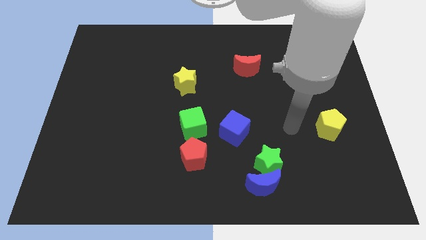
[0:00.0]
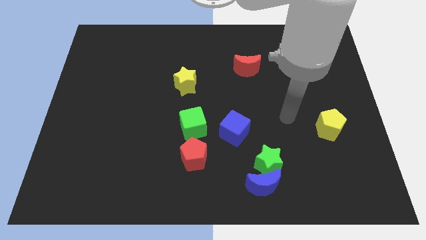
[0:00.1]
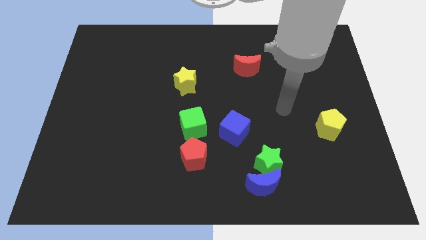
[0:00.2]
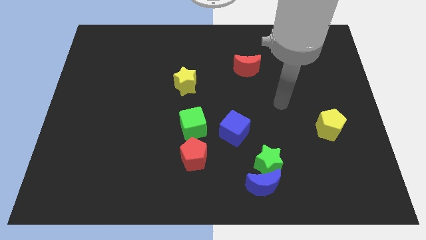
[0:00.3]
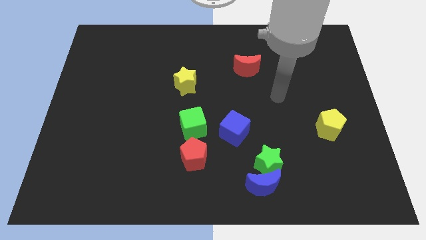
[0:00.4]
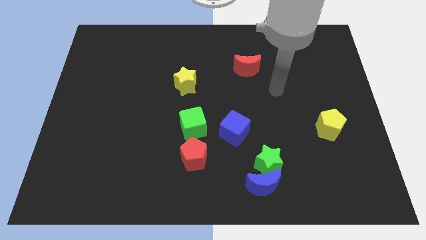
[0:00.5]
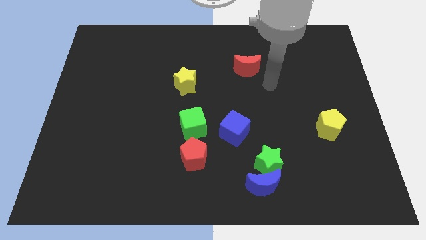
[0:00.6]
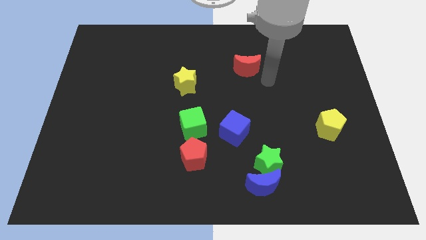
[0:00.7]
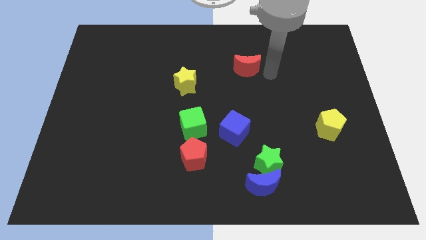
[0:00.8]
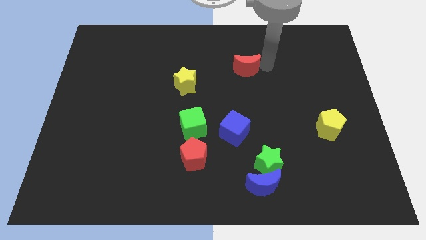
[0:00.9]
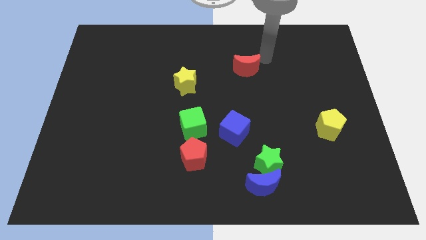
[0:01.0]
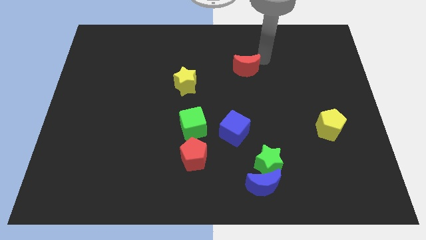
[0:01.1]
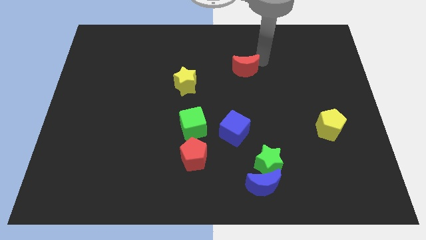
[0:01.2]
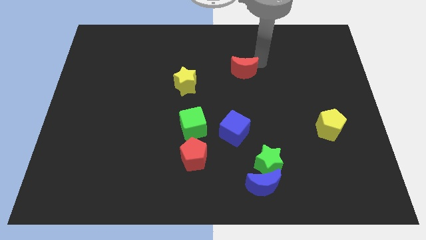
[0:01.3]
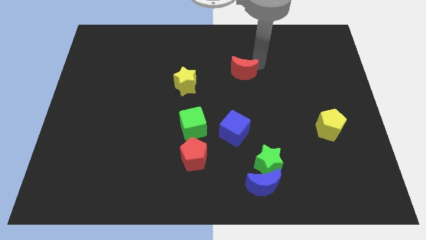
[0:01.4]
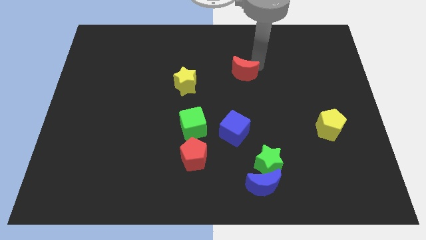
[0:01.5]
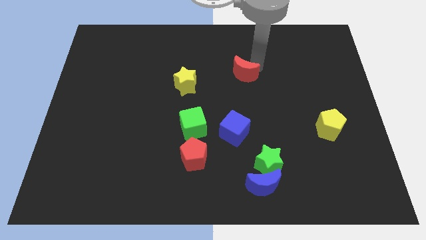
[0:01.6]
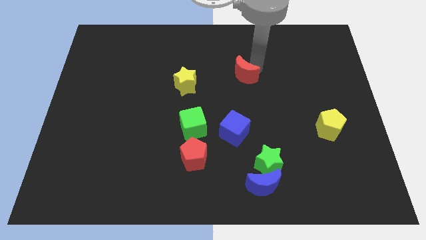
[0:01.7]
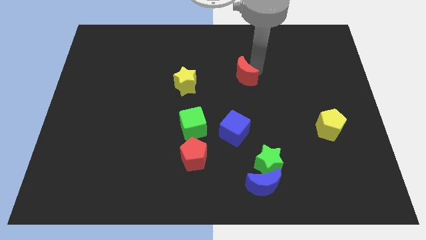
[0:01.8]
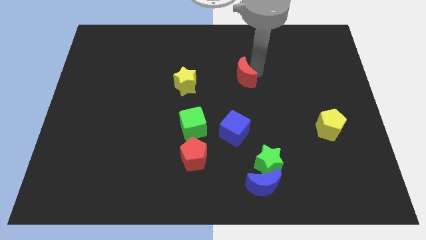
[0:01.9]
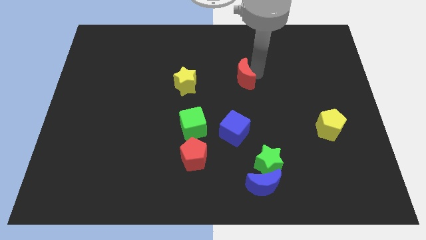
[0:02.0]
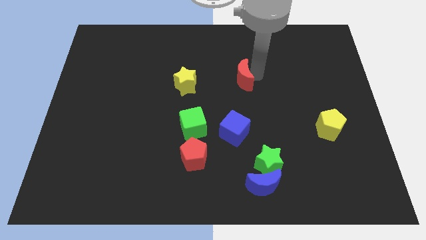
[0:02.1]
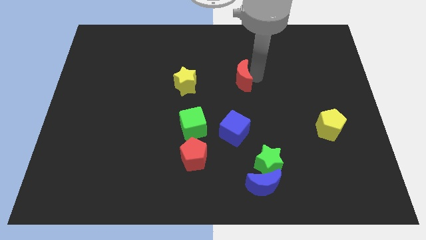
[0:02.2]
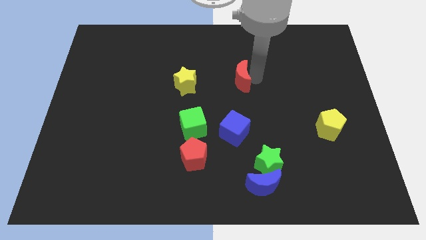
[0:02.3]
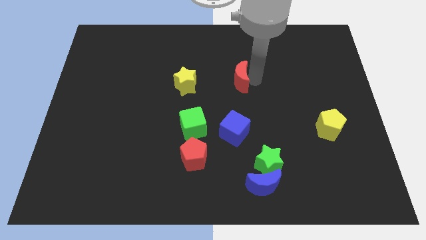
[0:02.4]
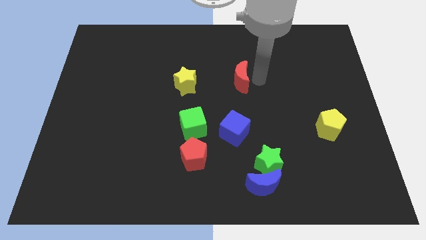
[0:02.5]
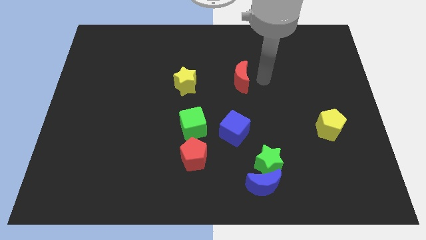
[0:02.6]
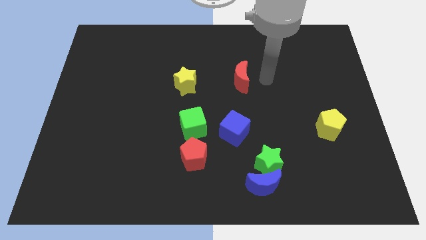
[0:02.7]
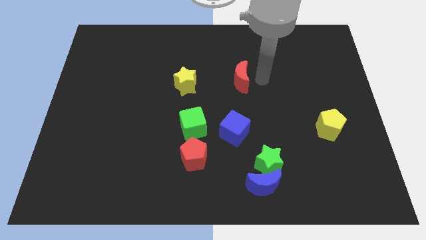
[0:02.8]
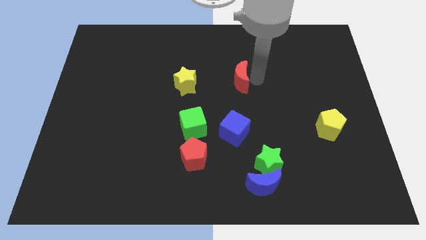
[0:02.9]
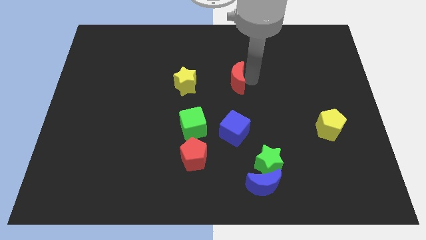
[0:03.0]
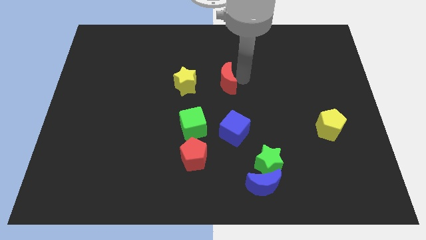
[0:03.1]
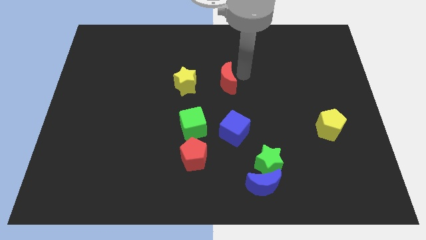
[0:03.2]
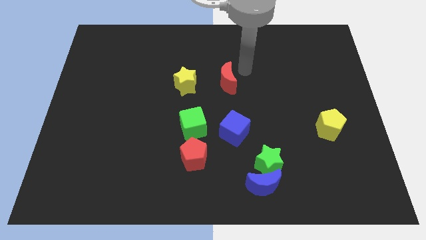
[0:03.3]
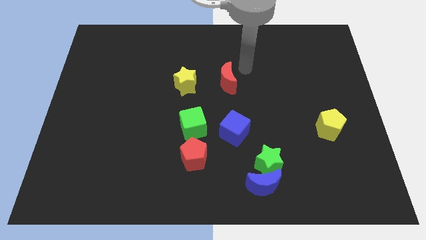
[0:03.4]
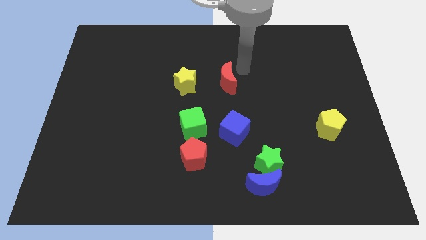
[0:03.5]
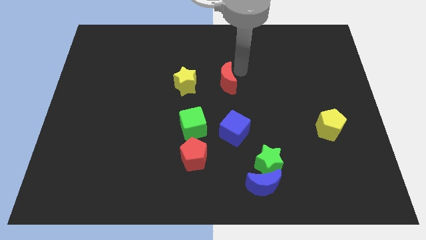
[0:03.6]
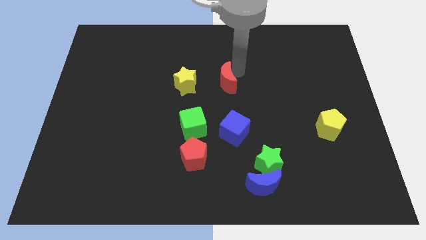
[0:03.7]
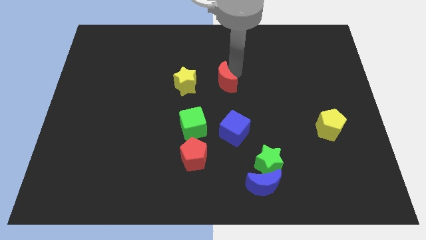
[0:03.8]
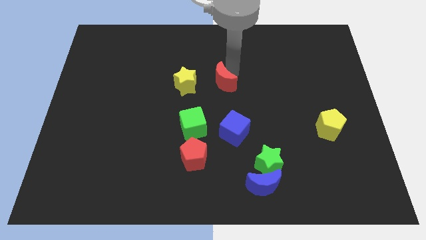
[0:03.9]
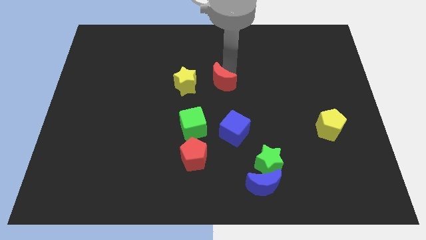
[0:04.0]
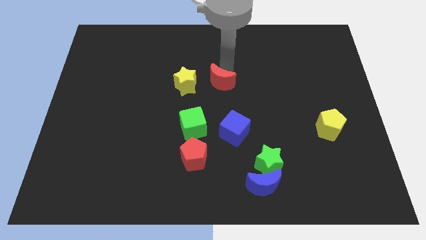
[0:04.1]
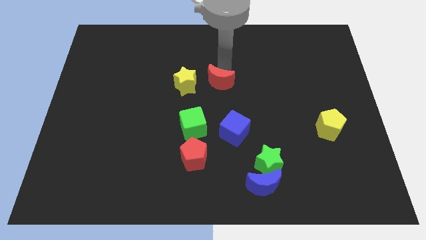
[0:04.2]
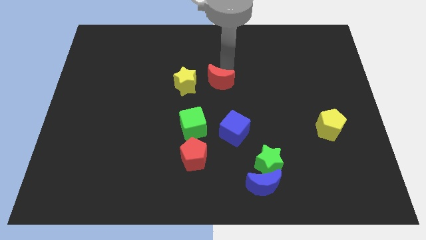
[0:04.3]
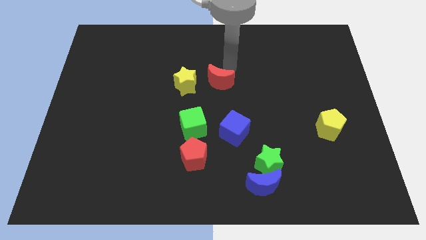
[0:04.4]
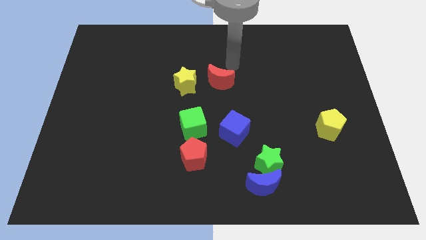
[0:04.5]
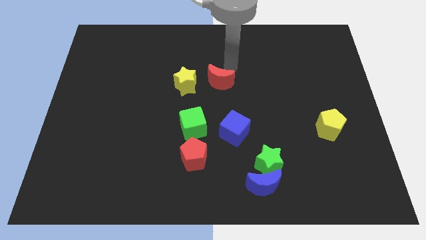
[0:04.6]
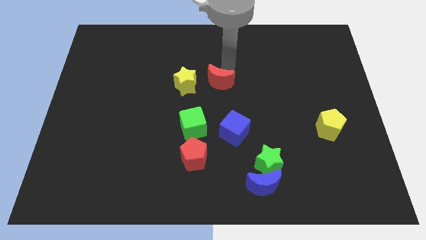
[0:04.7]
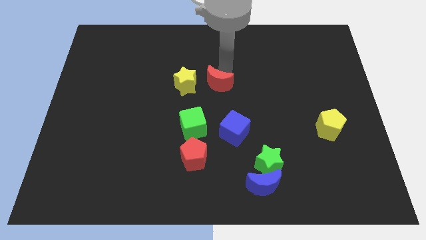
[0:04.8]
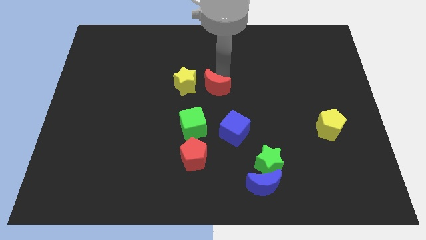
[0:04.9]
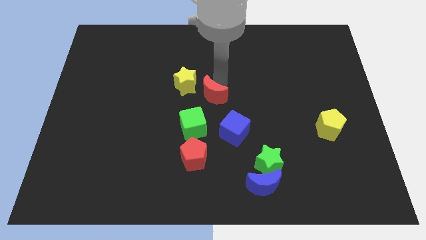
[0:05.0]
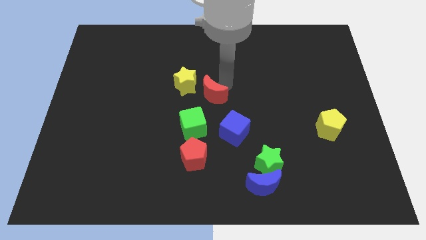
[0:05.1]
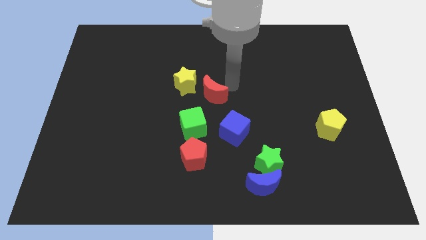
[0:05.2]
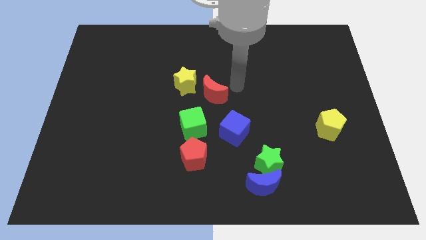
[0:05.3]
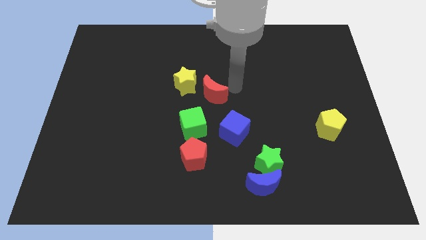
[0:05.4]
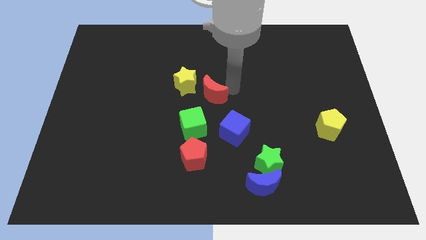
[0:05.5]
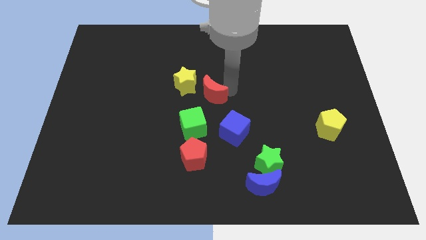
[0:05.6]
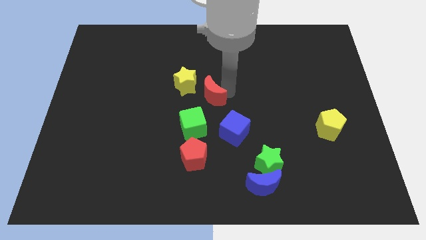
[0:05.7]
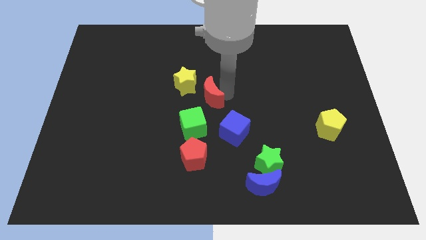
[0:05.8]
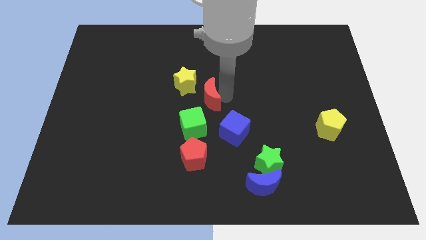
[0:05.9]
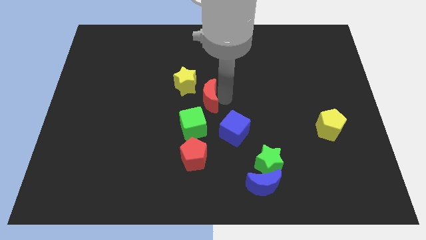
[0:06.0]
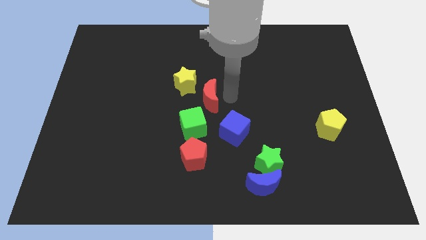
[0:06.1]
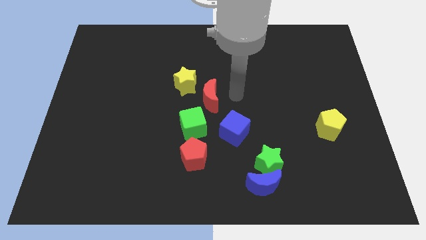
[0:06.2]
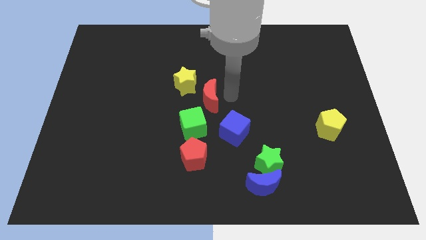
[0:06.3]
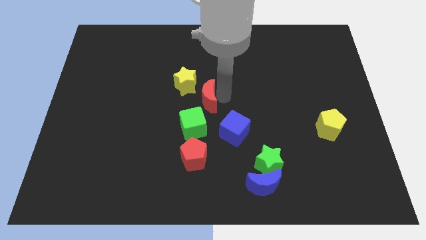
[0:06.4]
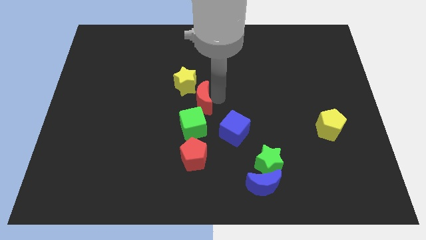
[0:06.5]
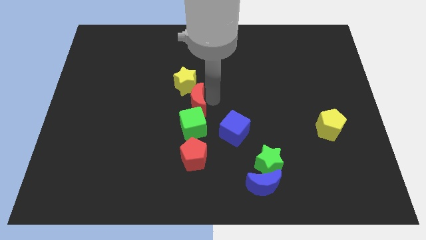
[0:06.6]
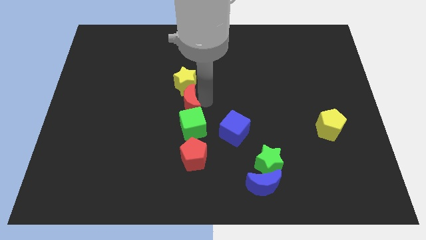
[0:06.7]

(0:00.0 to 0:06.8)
slide the red moon to the top left side of the green cube
